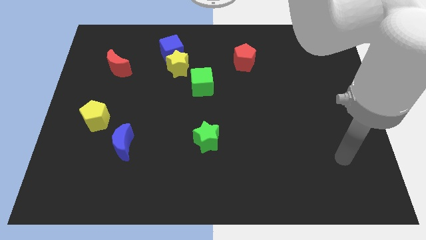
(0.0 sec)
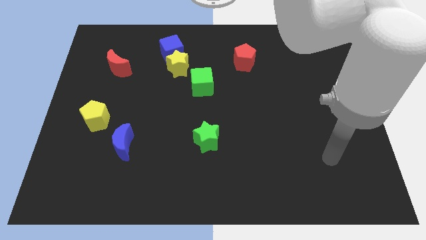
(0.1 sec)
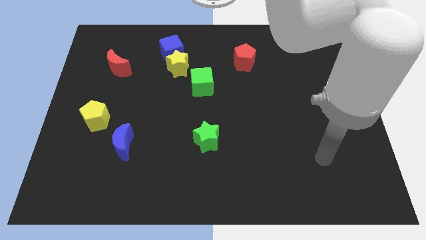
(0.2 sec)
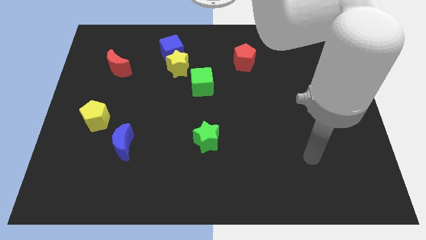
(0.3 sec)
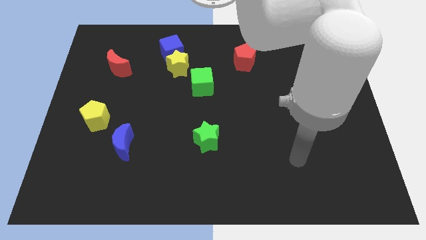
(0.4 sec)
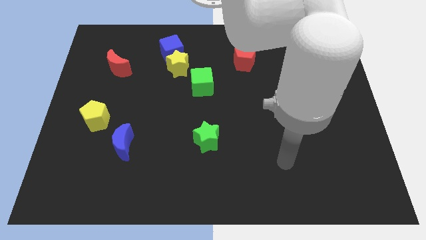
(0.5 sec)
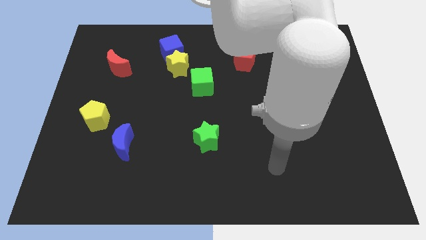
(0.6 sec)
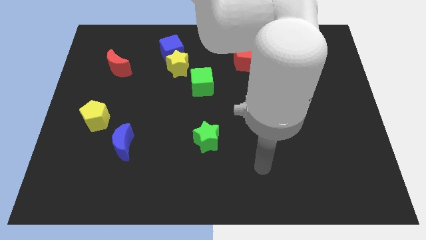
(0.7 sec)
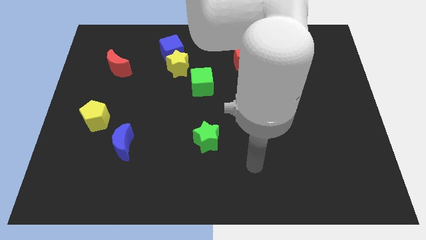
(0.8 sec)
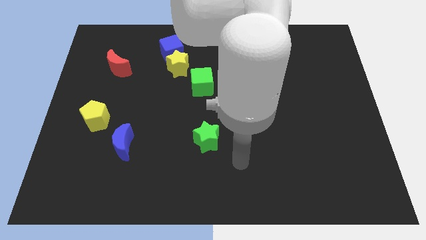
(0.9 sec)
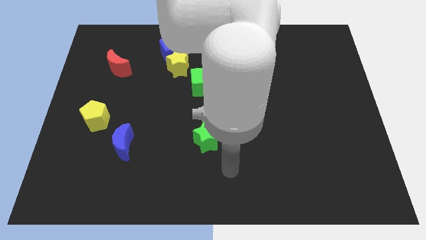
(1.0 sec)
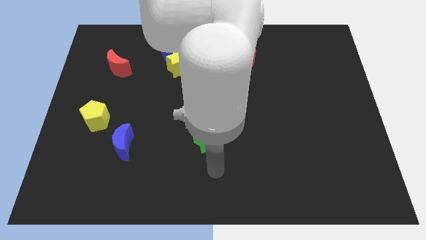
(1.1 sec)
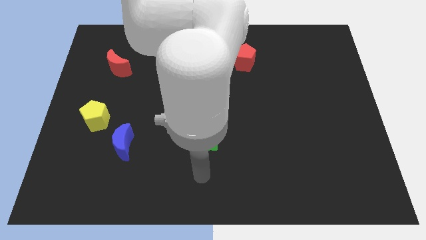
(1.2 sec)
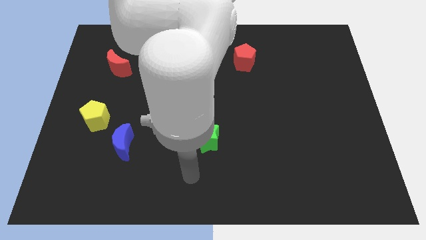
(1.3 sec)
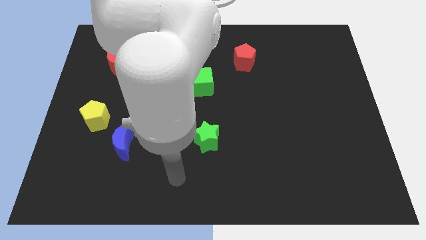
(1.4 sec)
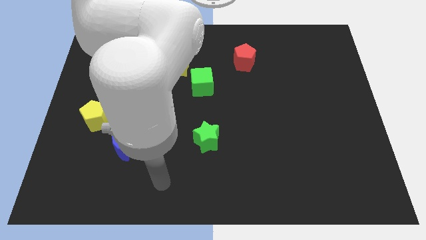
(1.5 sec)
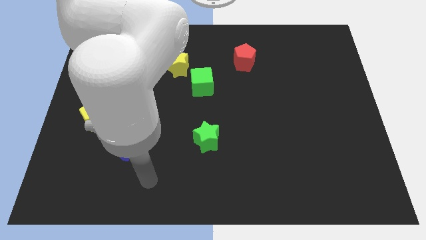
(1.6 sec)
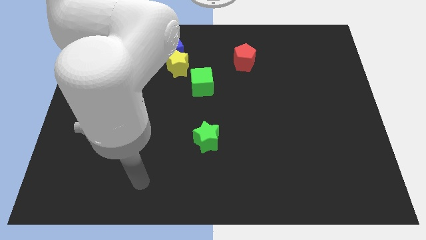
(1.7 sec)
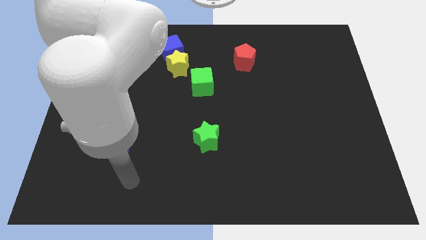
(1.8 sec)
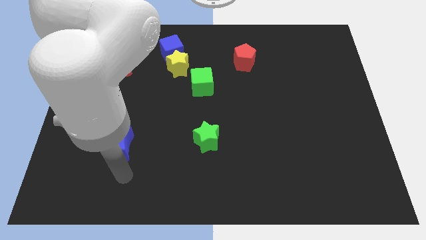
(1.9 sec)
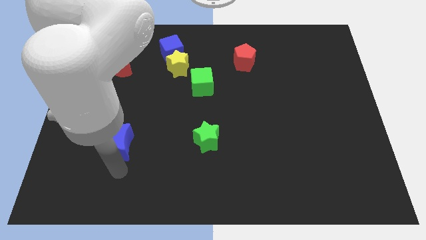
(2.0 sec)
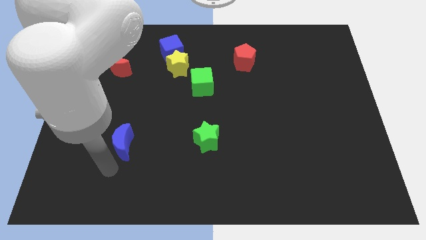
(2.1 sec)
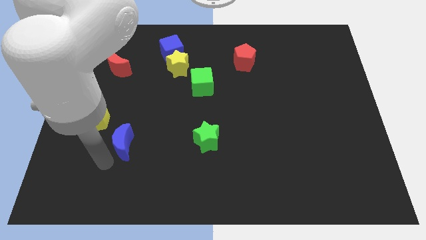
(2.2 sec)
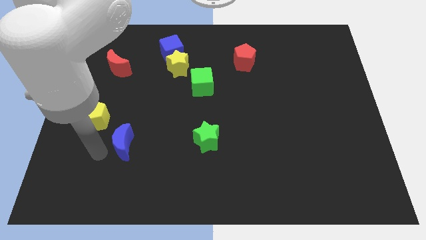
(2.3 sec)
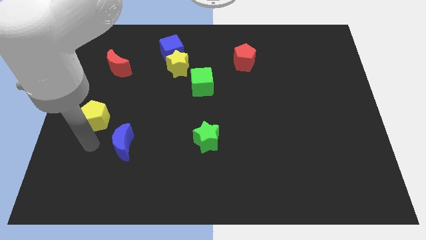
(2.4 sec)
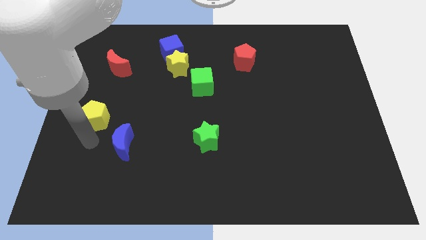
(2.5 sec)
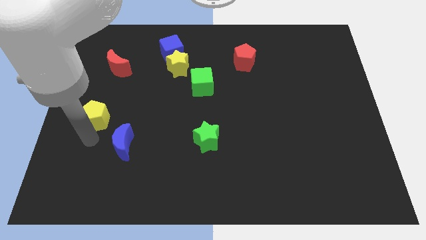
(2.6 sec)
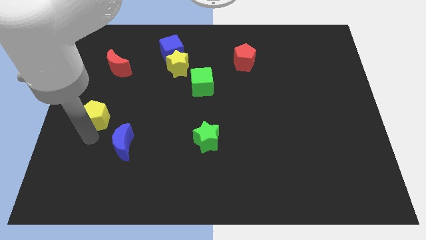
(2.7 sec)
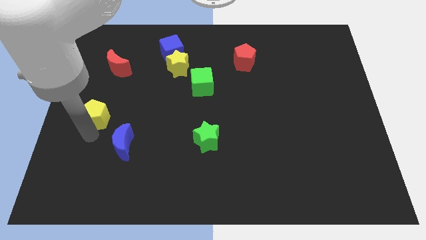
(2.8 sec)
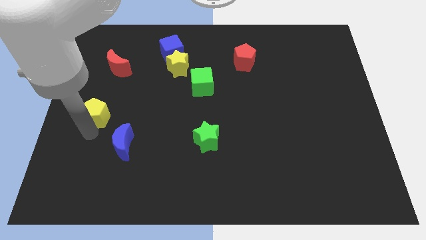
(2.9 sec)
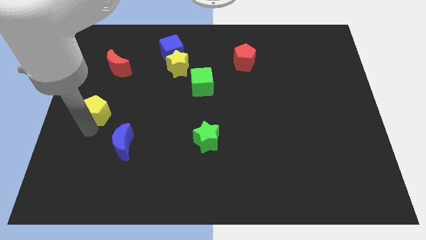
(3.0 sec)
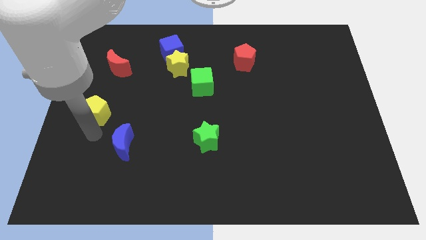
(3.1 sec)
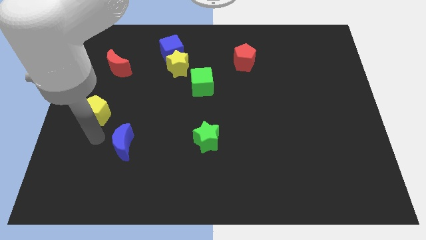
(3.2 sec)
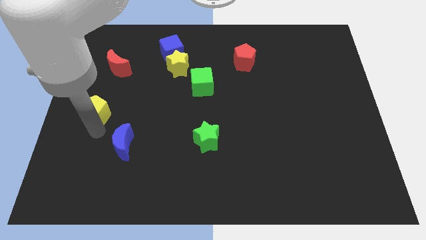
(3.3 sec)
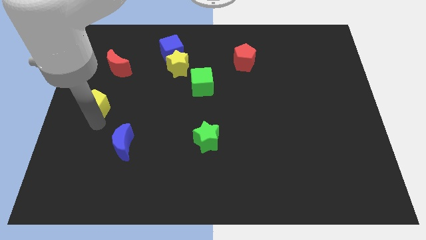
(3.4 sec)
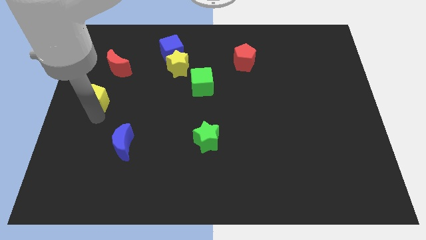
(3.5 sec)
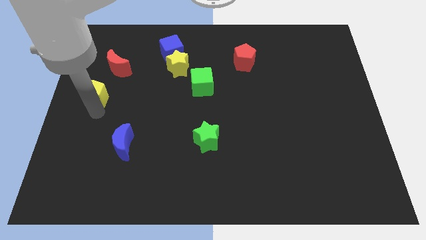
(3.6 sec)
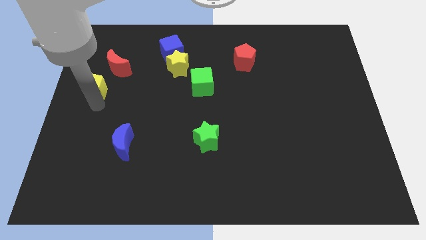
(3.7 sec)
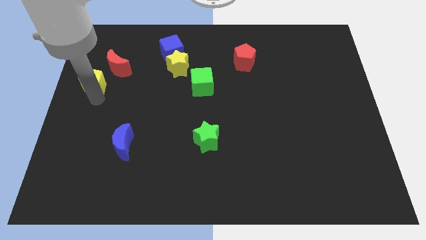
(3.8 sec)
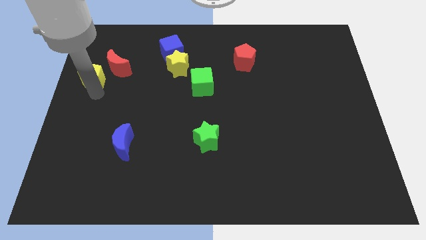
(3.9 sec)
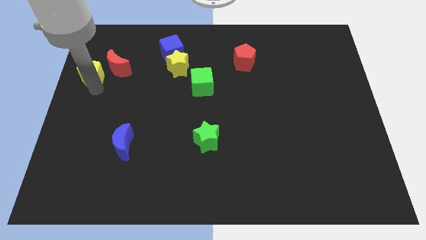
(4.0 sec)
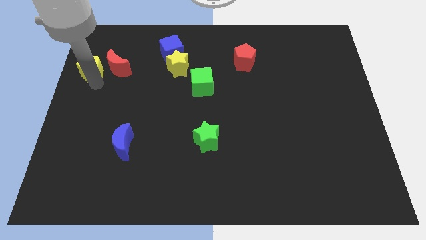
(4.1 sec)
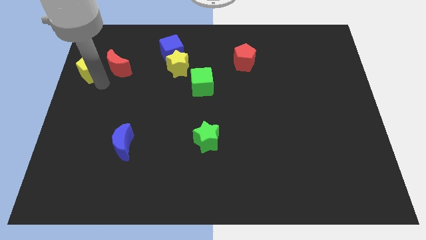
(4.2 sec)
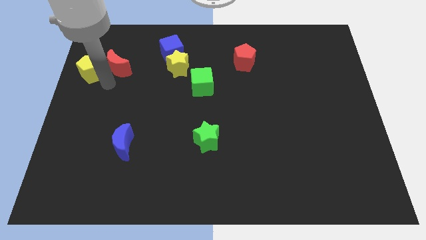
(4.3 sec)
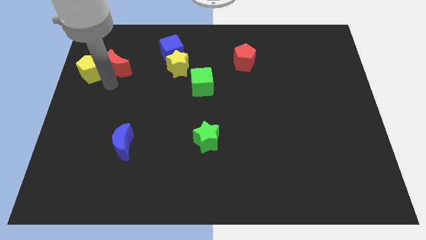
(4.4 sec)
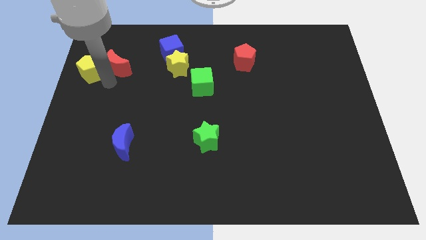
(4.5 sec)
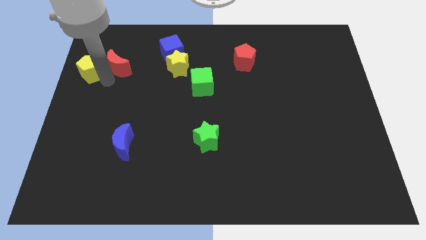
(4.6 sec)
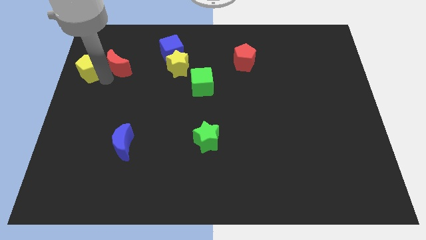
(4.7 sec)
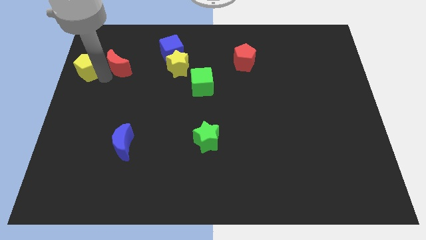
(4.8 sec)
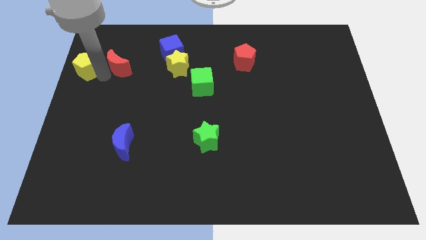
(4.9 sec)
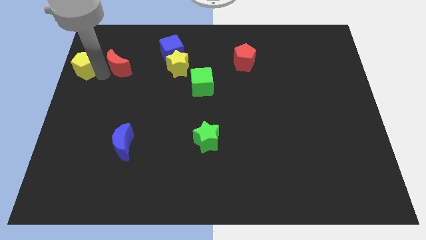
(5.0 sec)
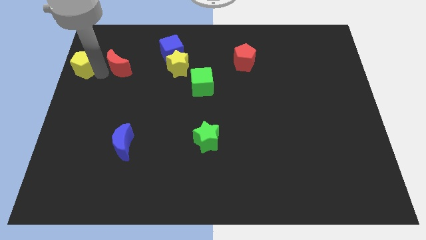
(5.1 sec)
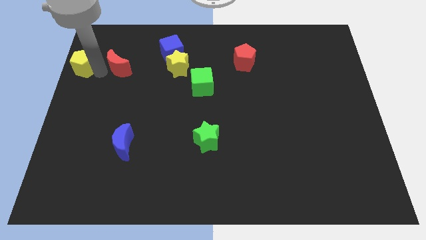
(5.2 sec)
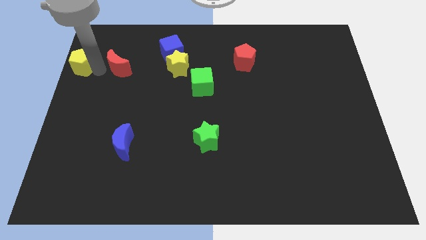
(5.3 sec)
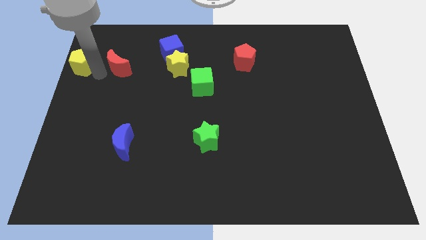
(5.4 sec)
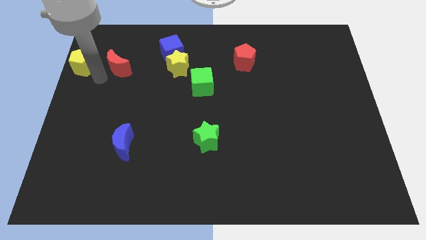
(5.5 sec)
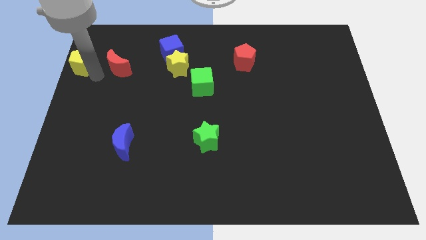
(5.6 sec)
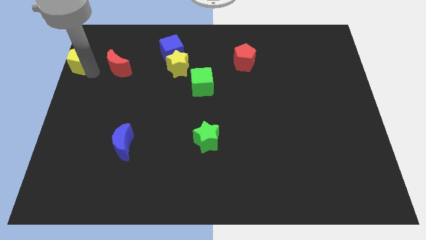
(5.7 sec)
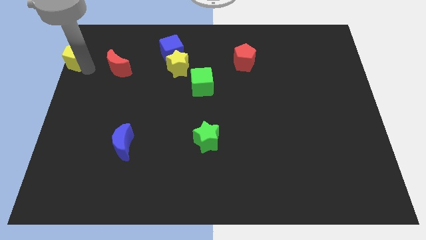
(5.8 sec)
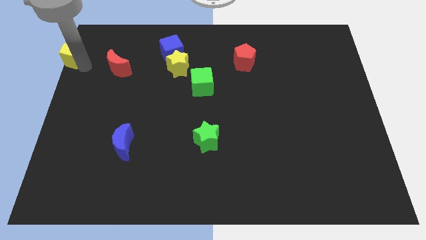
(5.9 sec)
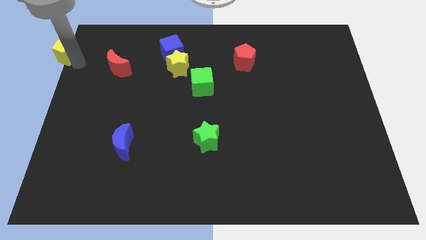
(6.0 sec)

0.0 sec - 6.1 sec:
move the yellow pentagon to the top left corner
